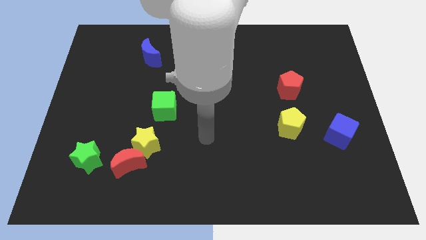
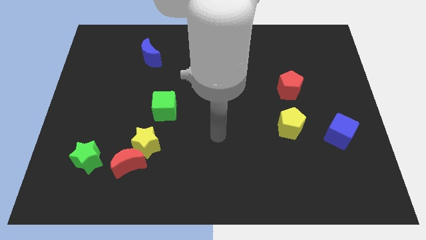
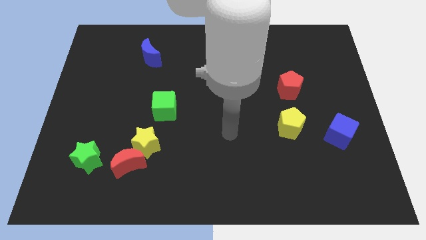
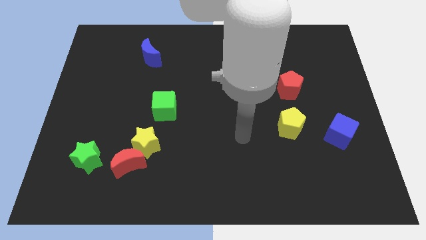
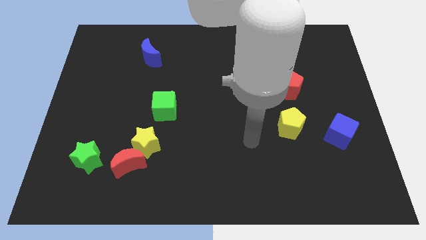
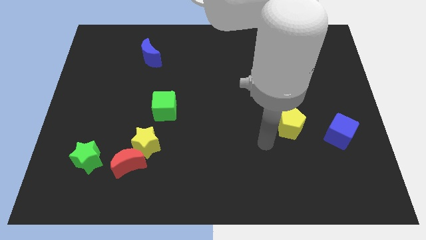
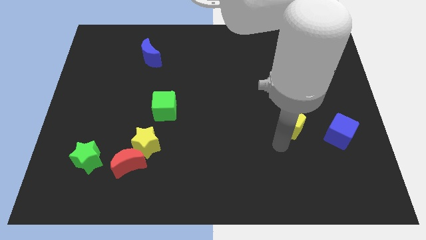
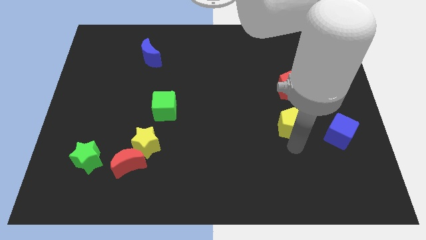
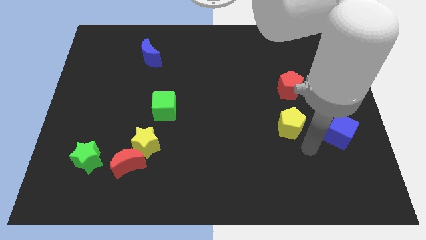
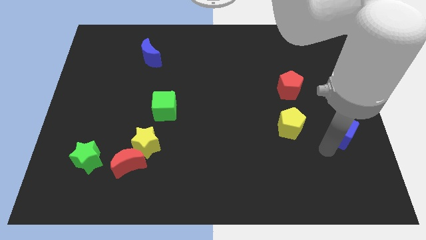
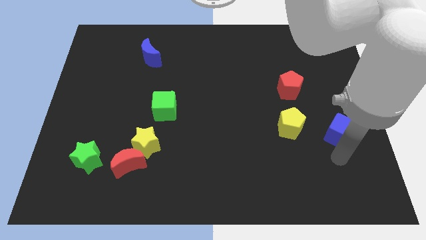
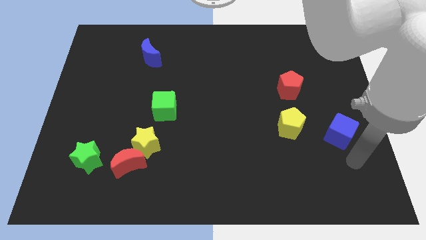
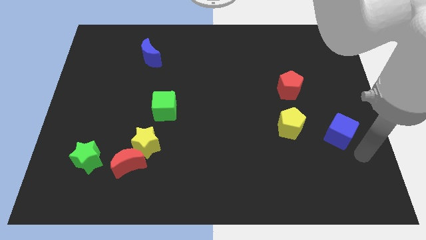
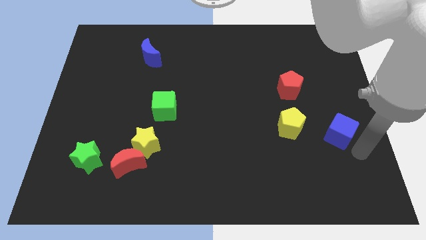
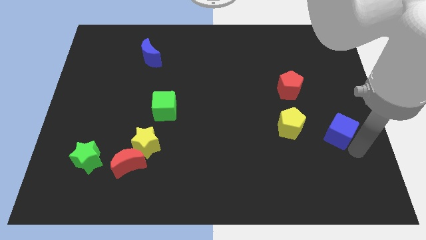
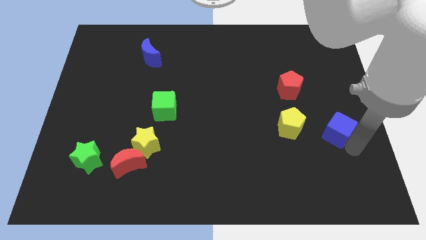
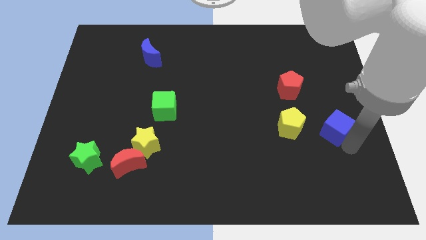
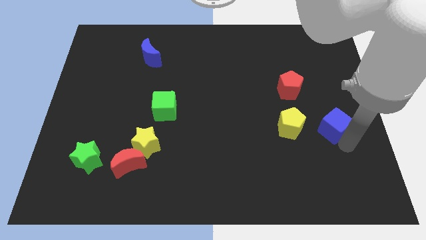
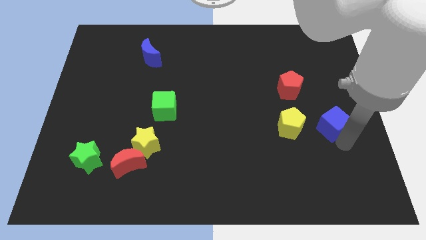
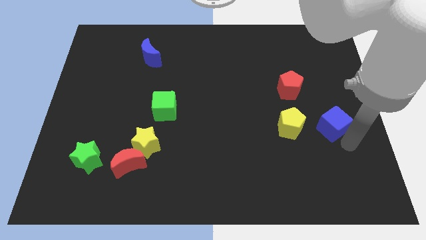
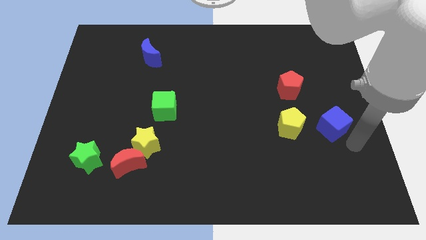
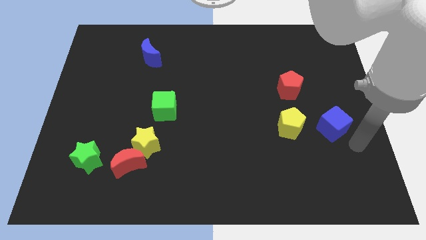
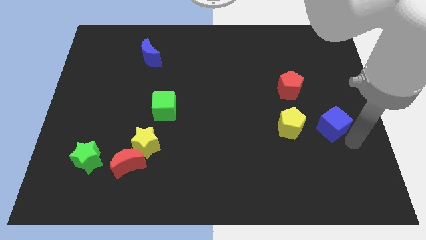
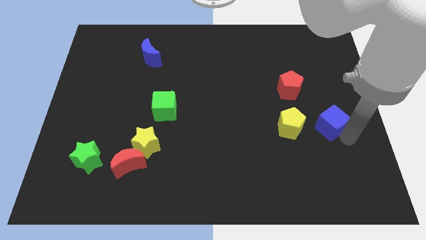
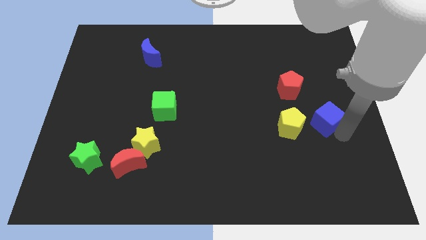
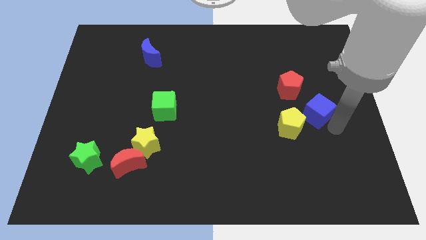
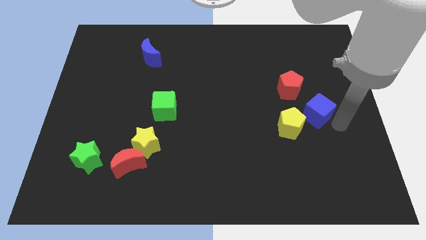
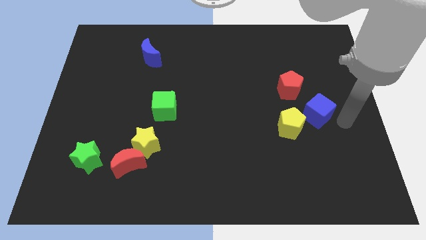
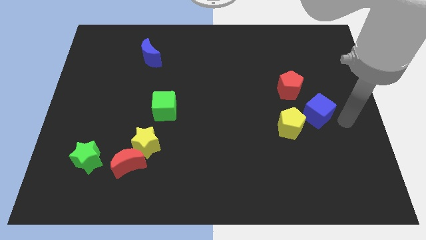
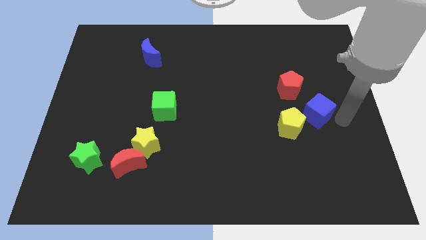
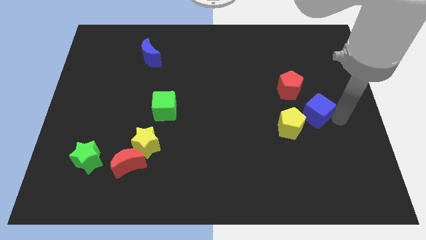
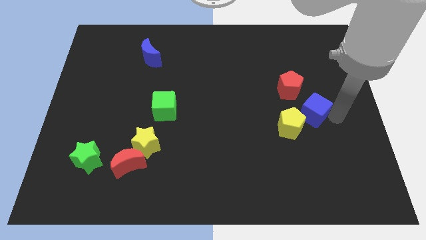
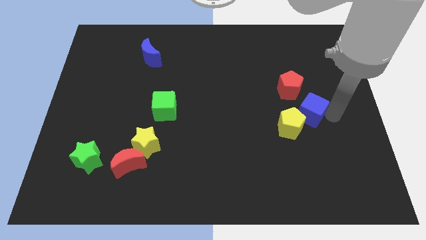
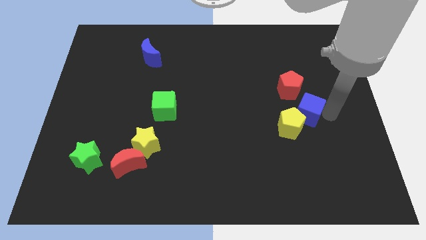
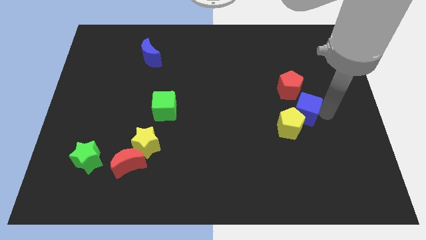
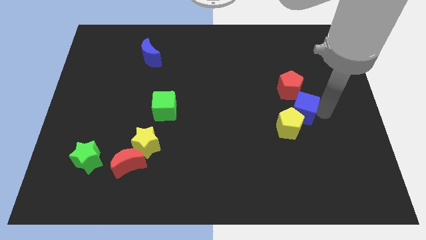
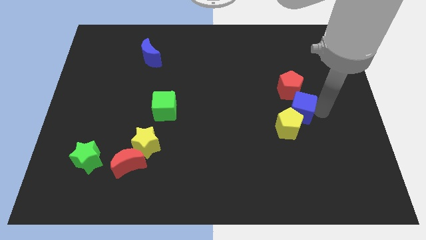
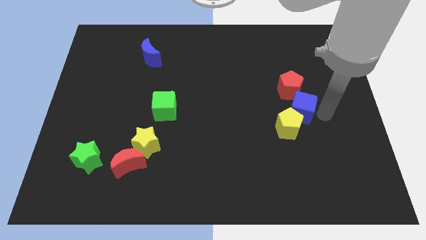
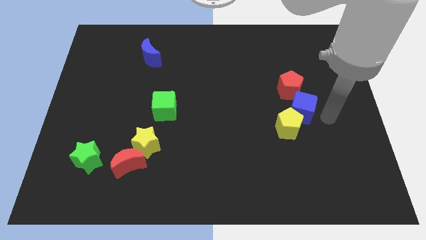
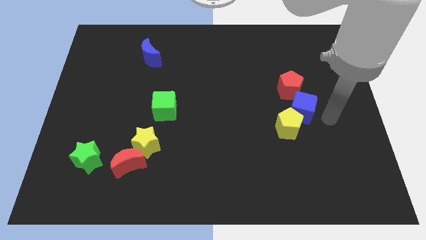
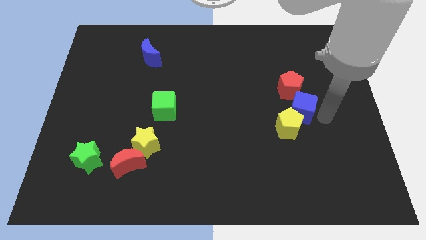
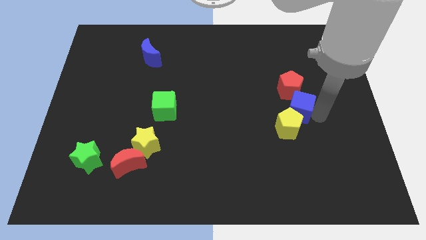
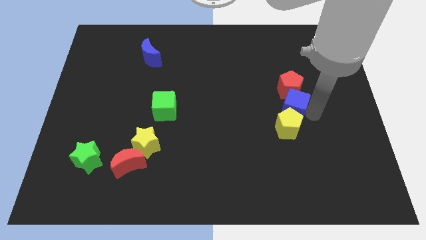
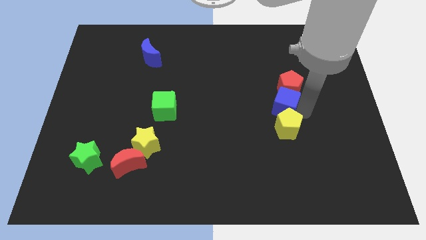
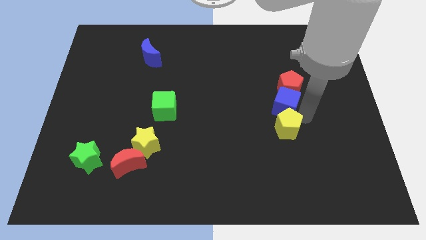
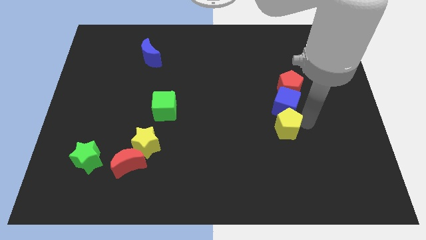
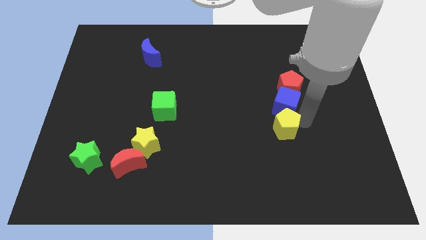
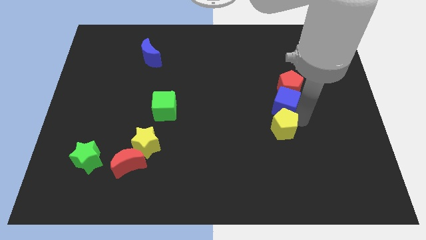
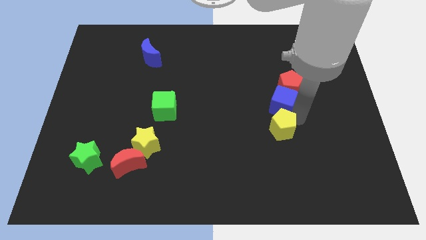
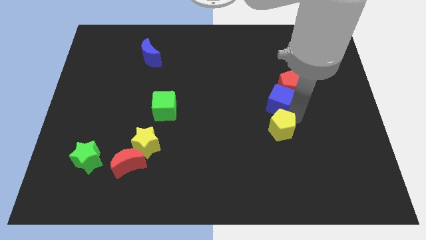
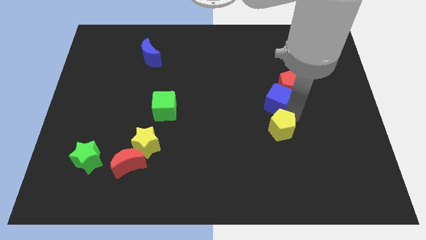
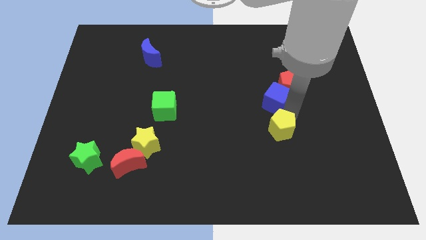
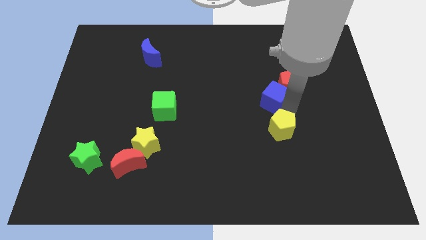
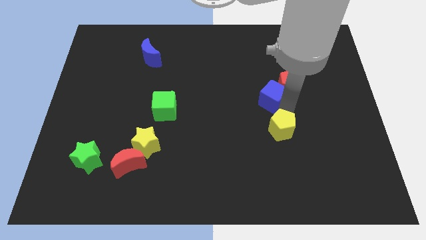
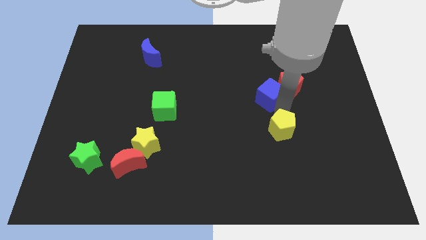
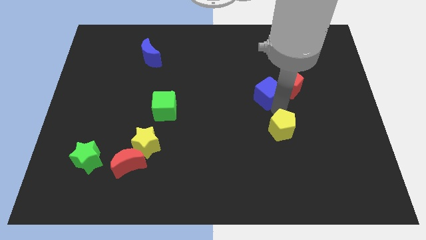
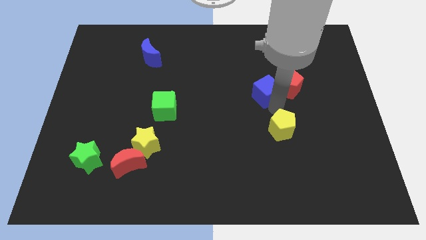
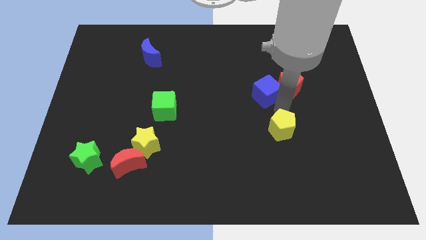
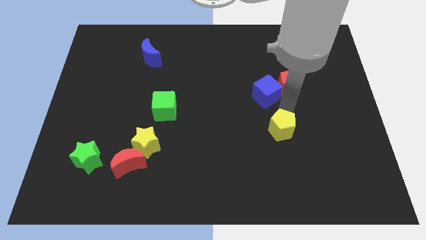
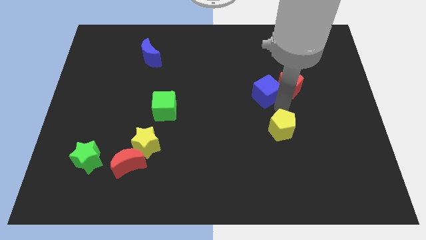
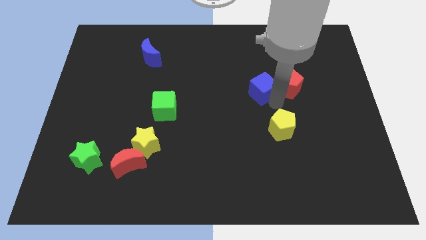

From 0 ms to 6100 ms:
push the blue cube up and then left

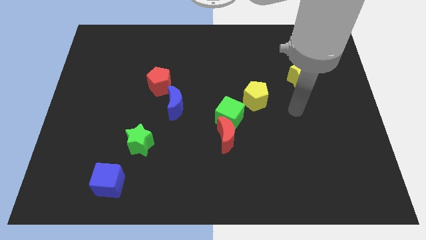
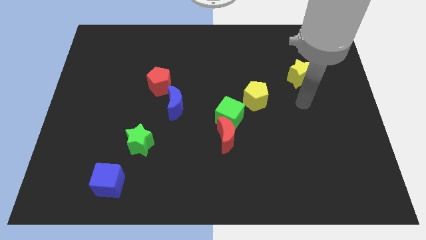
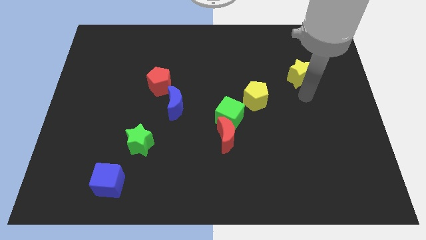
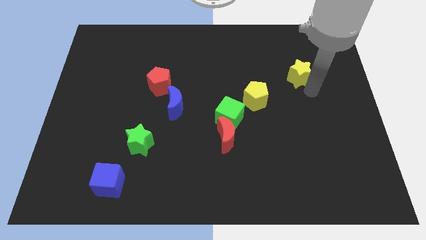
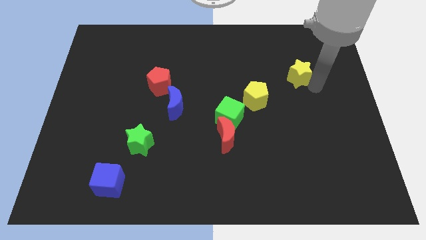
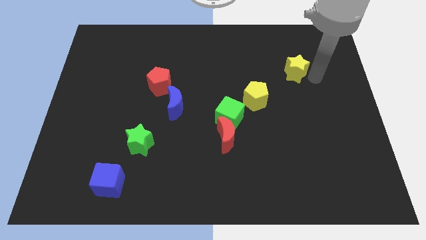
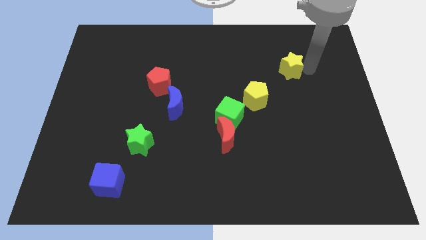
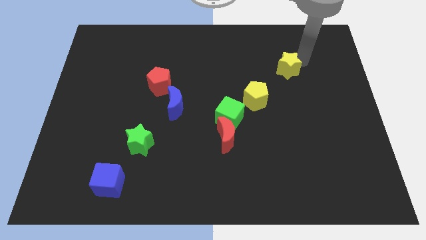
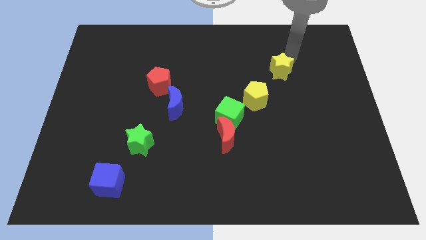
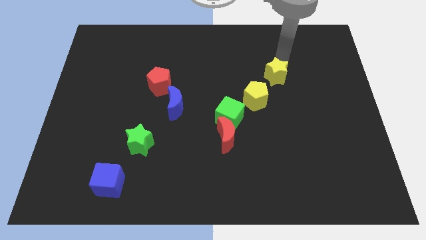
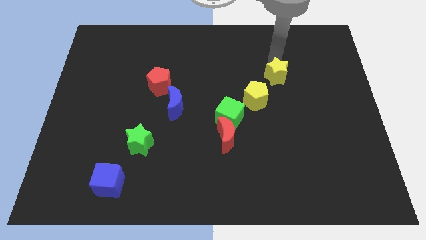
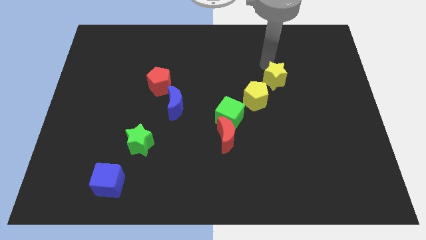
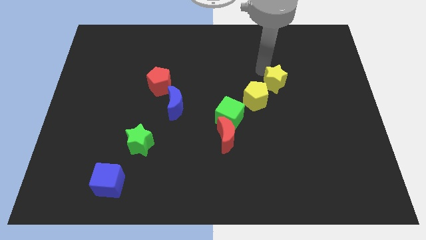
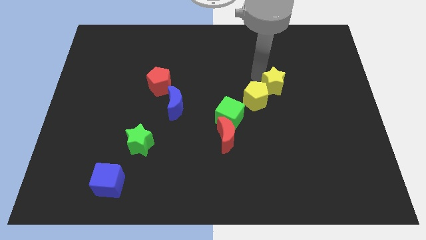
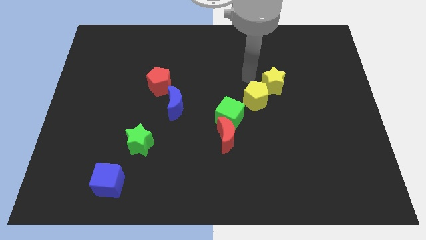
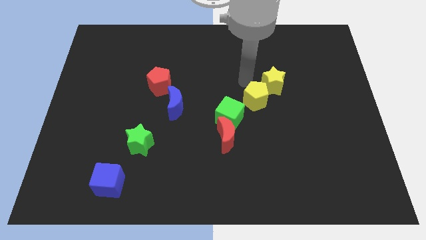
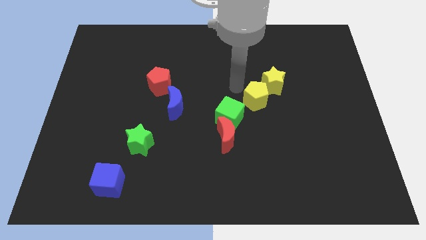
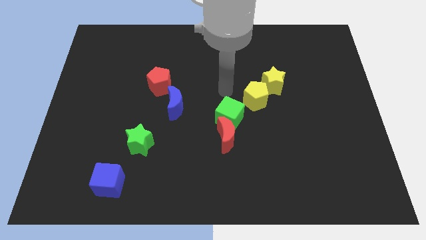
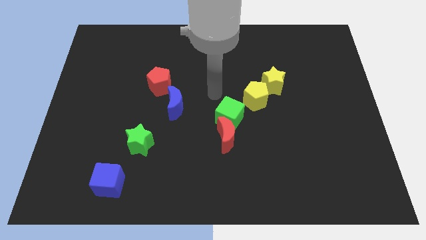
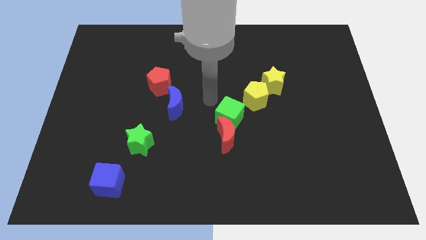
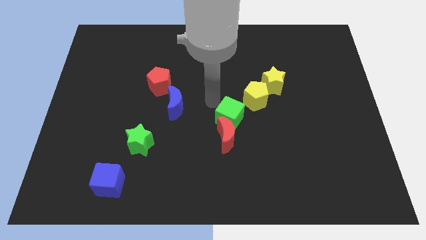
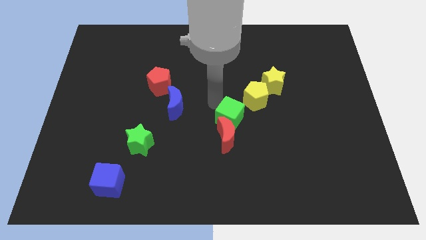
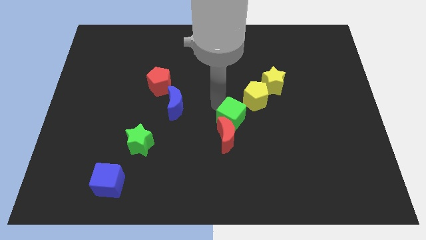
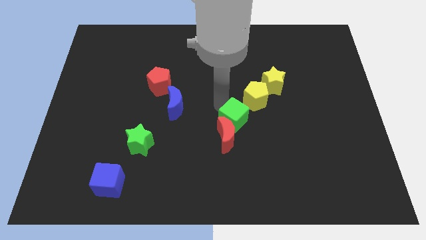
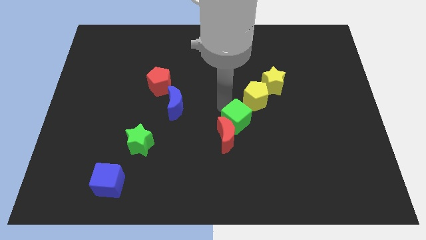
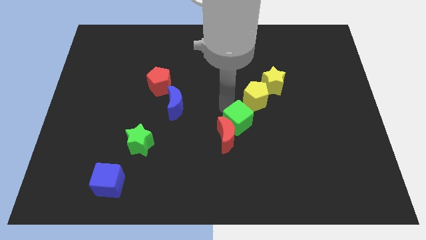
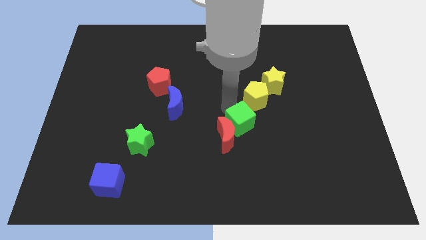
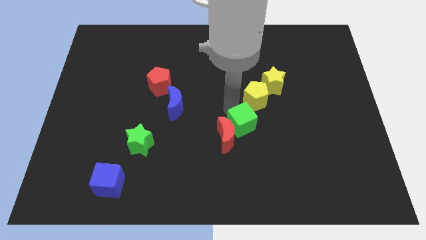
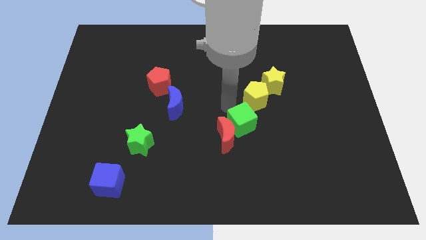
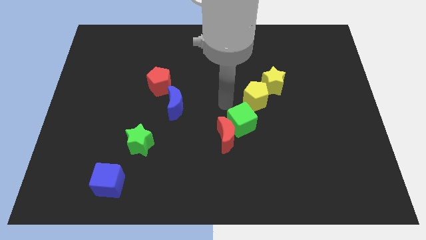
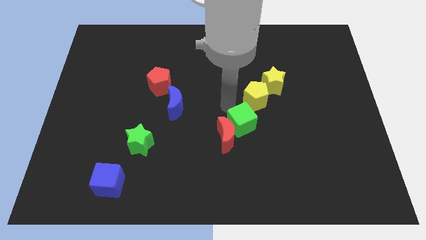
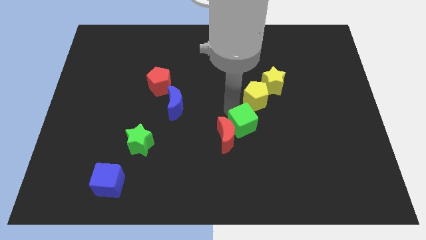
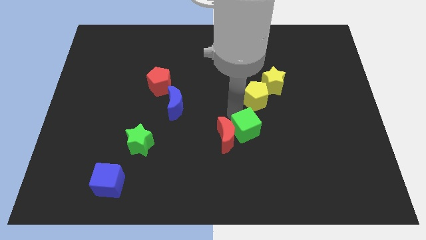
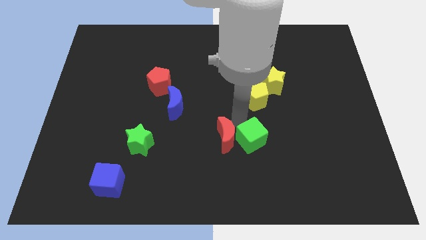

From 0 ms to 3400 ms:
slightly move the green cube downwards and then to the right
